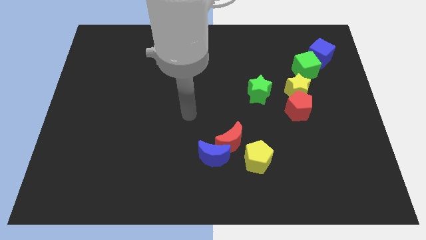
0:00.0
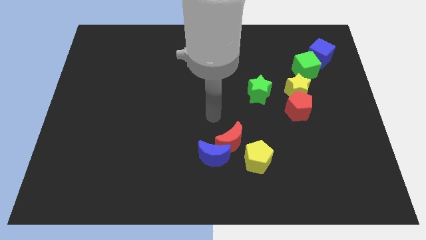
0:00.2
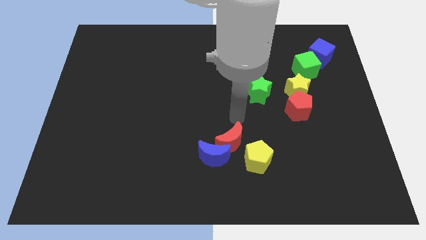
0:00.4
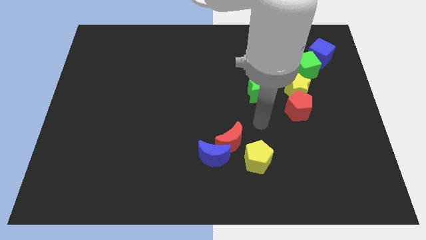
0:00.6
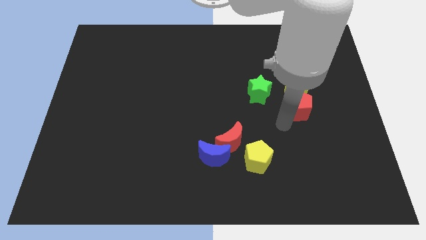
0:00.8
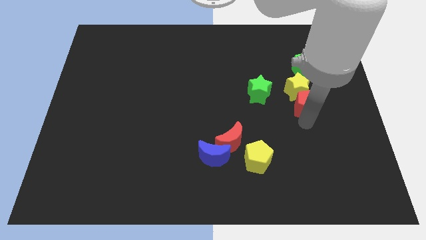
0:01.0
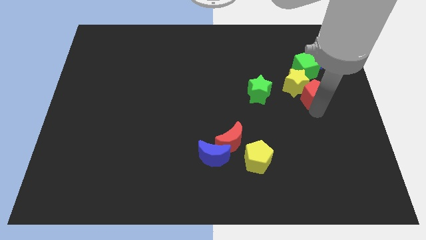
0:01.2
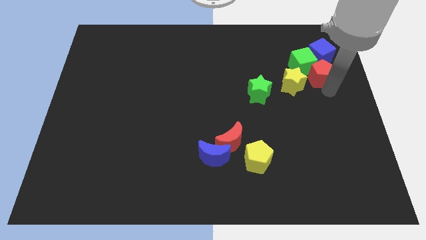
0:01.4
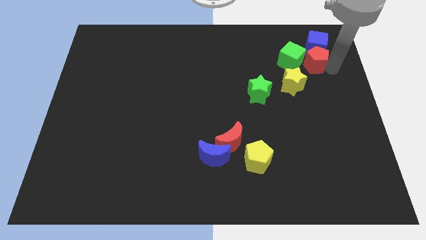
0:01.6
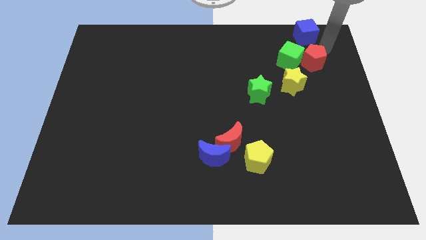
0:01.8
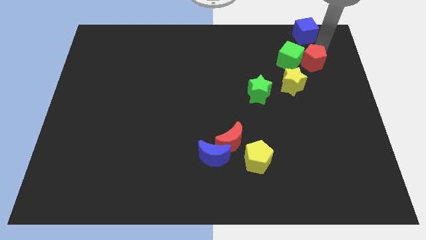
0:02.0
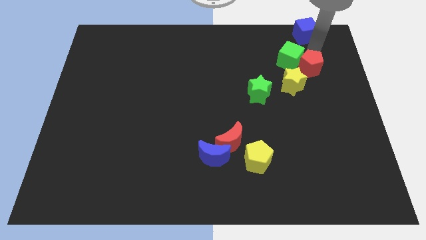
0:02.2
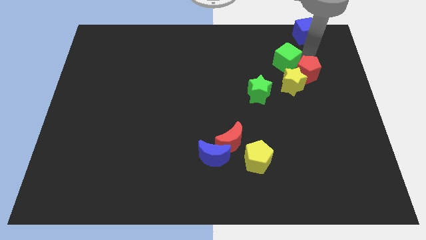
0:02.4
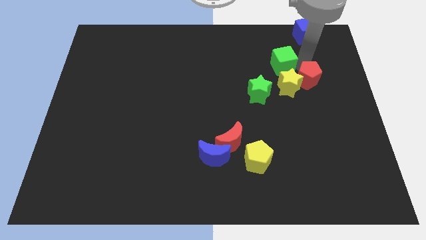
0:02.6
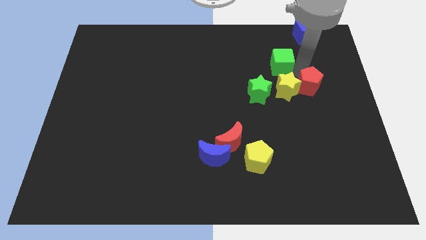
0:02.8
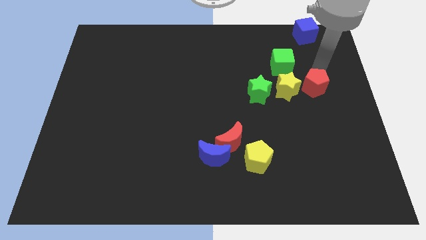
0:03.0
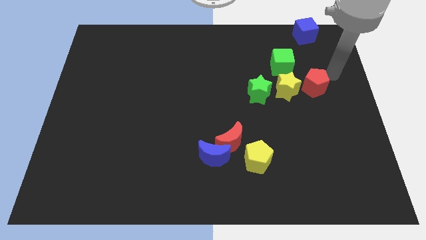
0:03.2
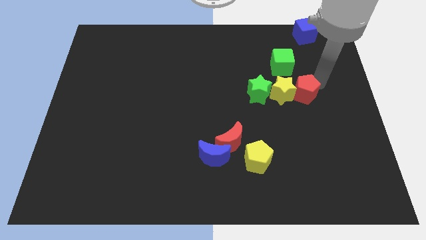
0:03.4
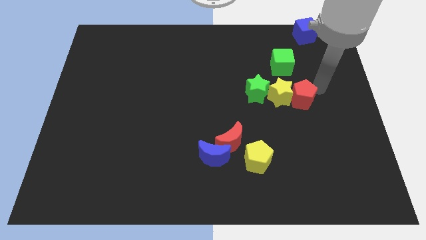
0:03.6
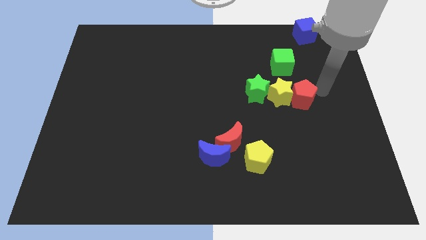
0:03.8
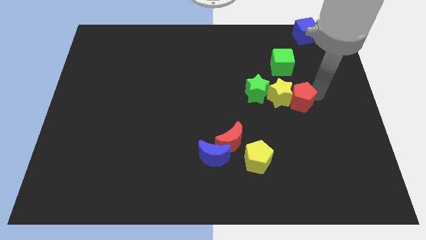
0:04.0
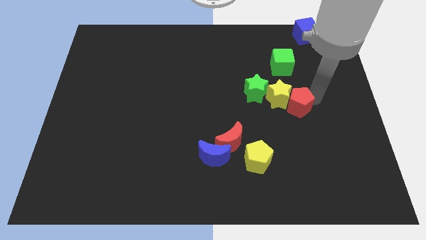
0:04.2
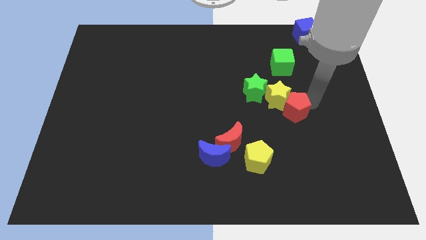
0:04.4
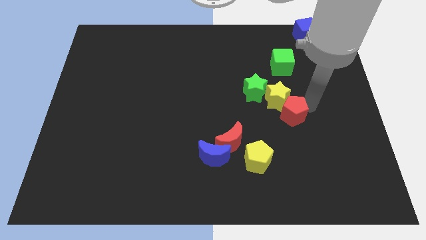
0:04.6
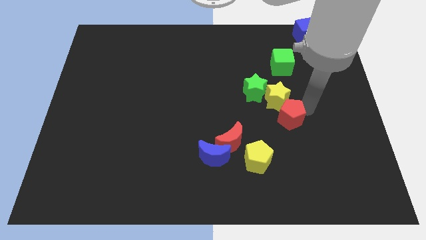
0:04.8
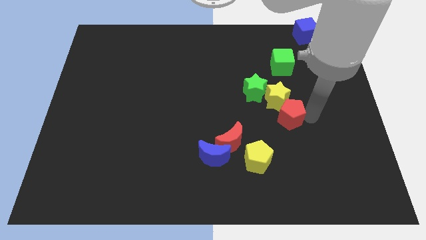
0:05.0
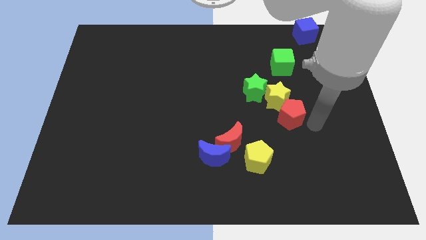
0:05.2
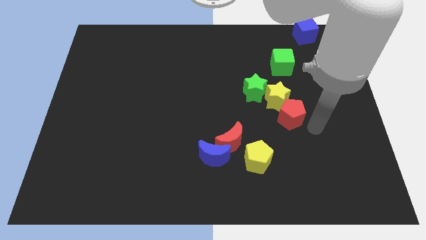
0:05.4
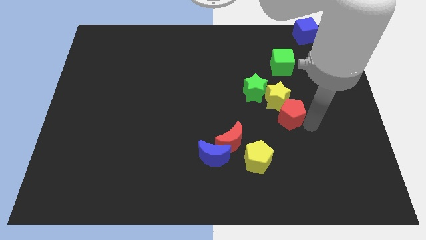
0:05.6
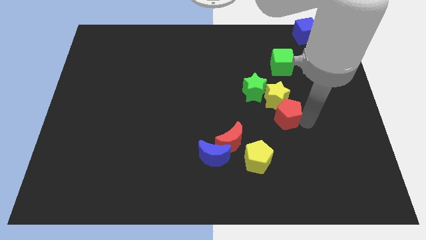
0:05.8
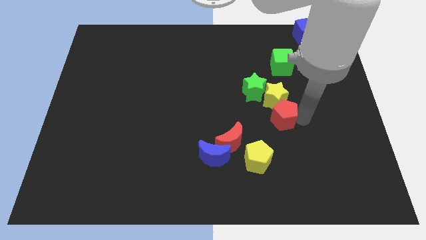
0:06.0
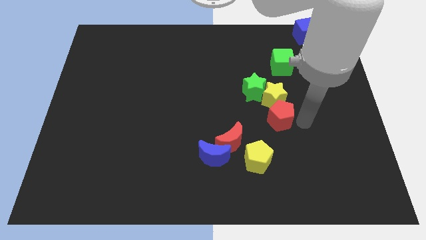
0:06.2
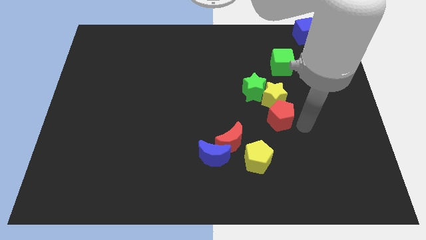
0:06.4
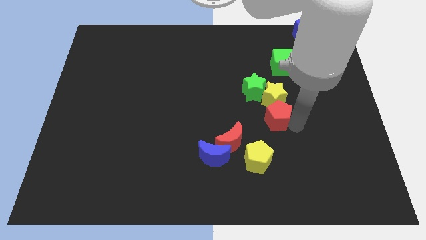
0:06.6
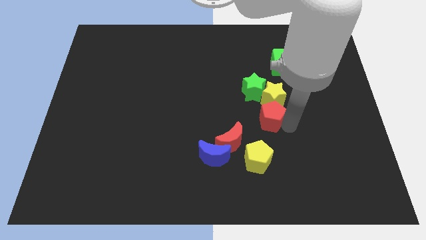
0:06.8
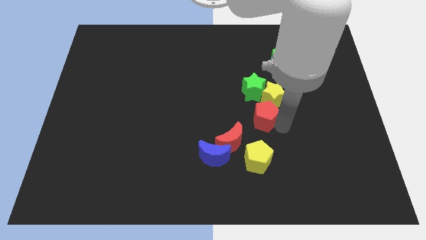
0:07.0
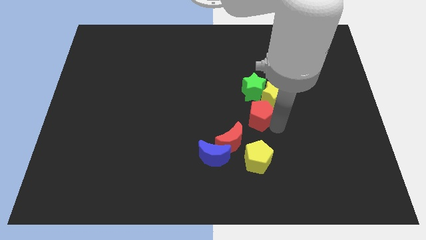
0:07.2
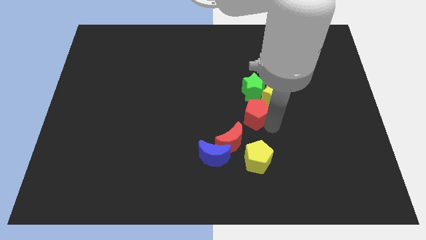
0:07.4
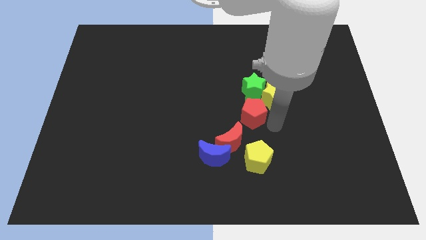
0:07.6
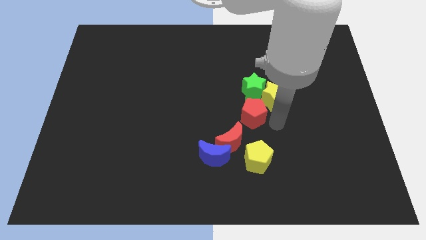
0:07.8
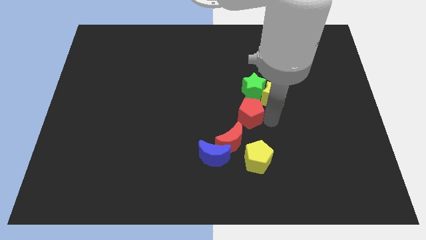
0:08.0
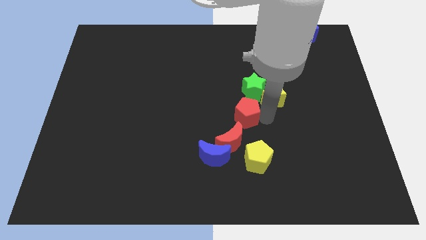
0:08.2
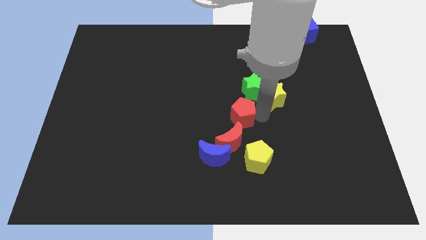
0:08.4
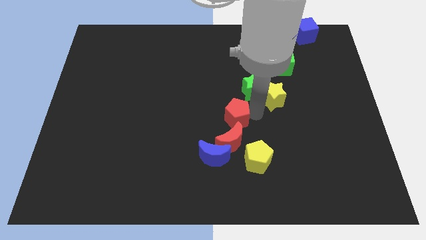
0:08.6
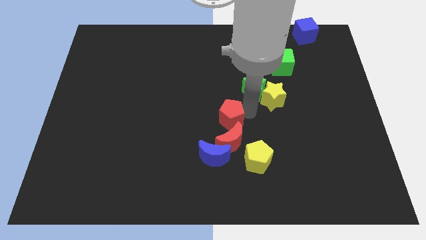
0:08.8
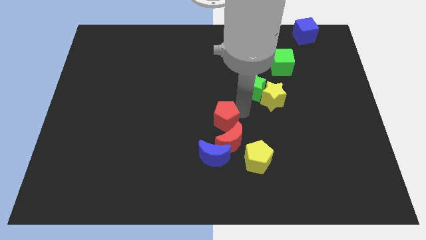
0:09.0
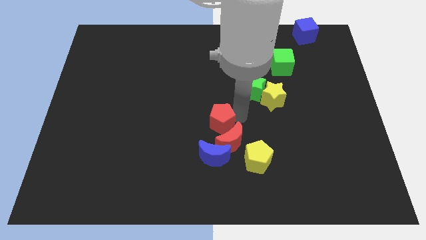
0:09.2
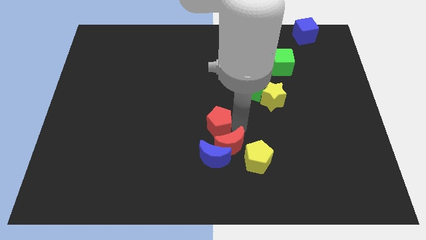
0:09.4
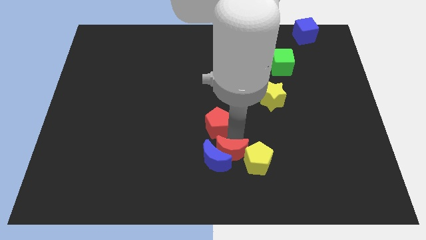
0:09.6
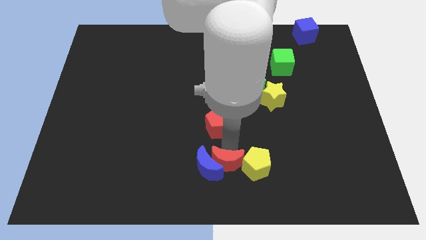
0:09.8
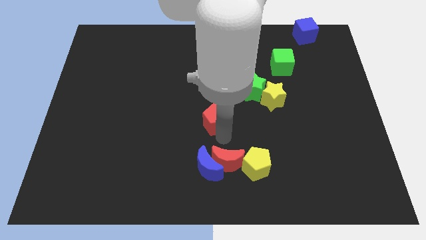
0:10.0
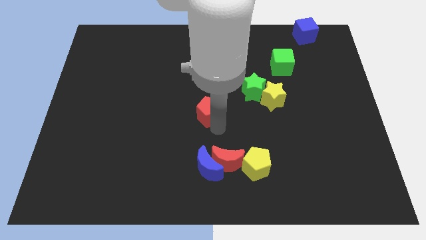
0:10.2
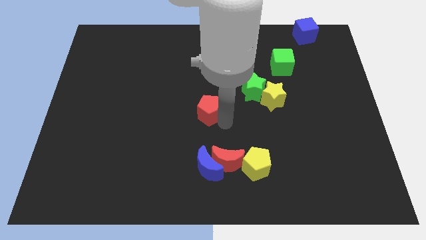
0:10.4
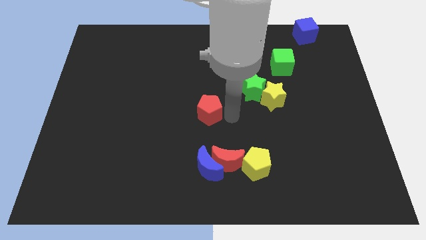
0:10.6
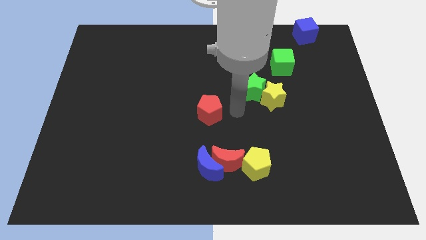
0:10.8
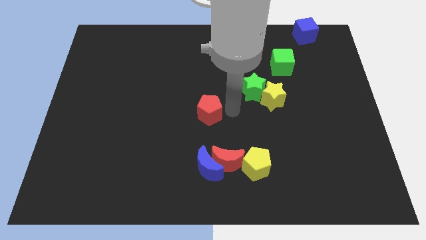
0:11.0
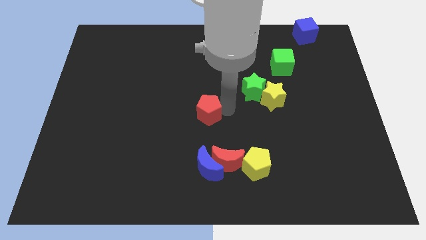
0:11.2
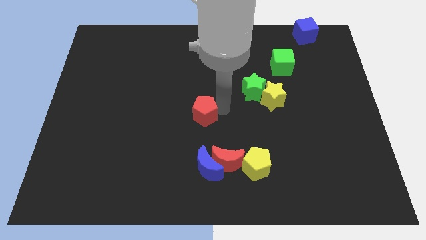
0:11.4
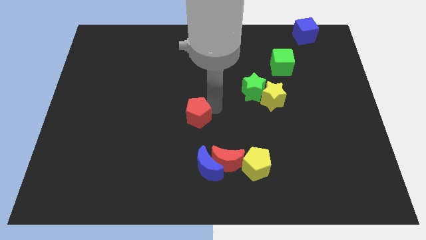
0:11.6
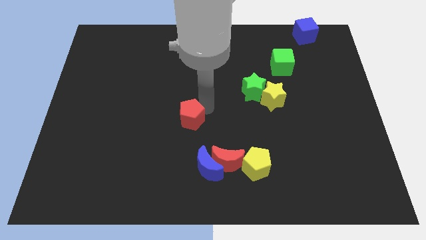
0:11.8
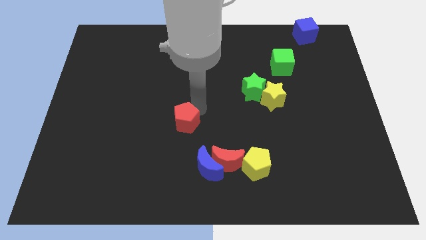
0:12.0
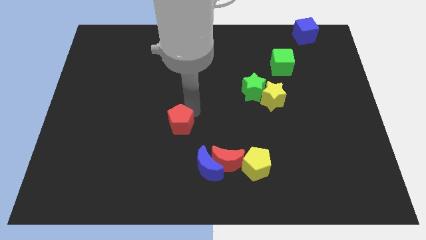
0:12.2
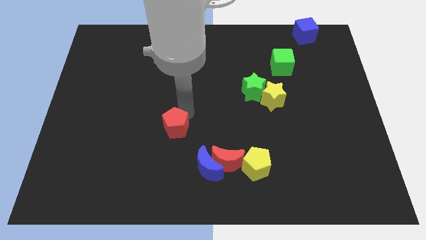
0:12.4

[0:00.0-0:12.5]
move the red pentagon to the top left of the blue moon

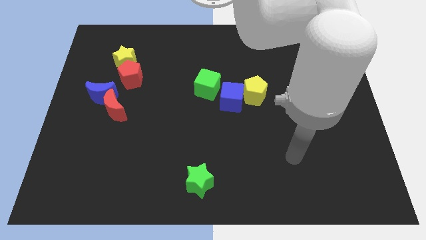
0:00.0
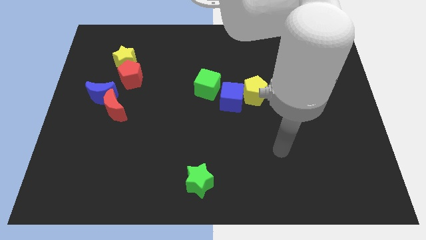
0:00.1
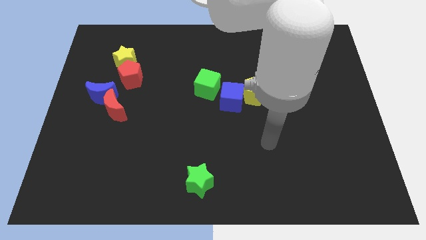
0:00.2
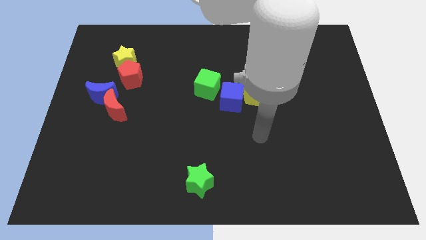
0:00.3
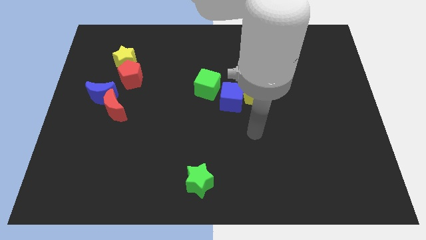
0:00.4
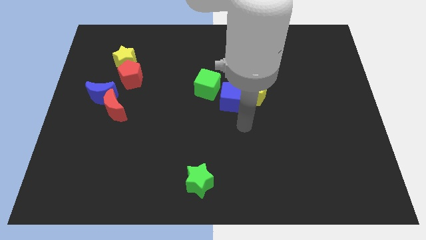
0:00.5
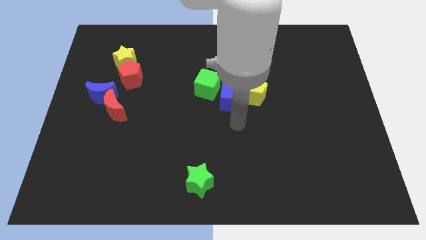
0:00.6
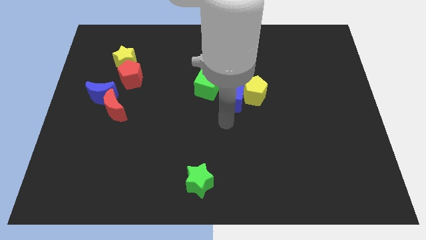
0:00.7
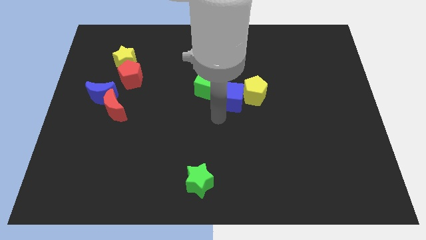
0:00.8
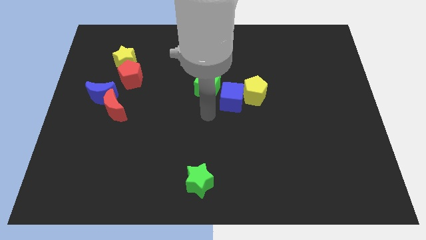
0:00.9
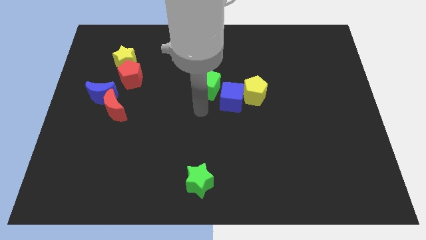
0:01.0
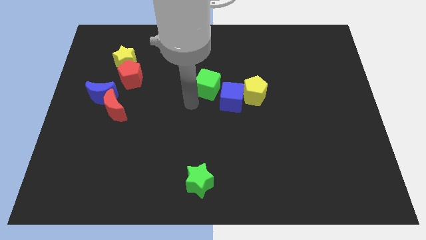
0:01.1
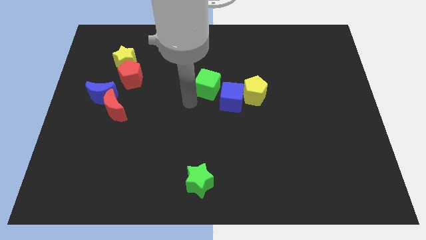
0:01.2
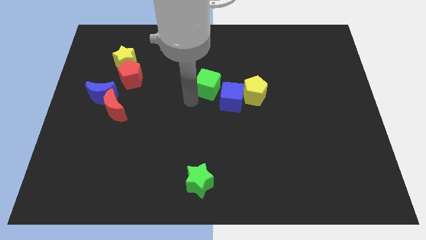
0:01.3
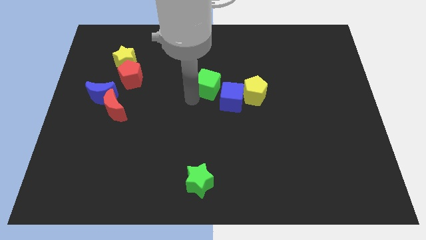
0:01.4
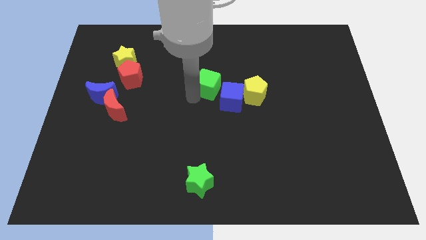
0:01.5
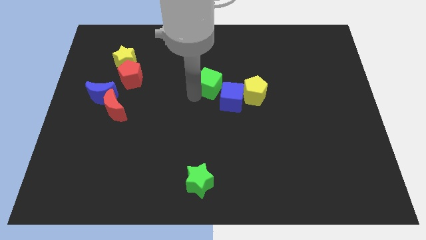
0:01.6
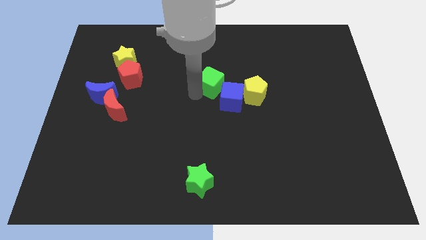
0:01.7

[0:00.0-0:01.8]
put the green cube to the top of the blue cube
